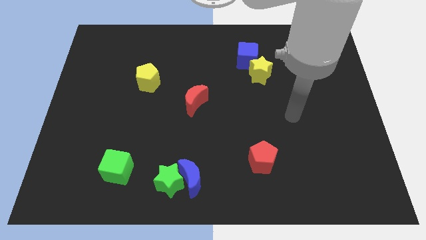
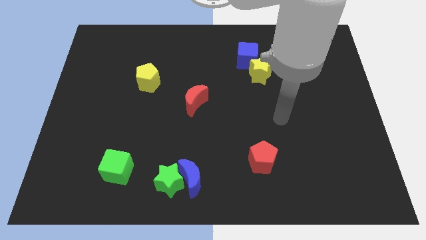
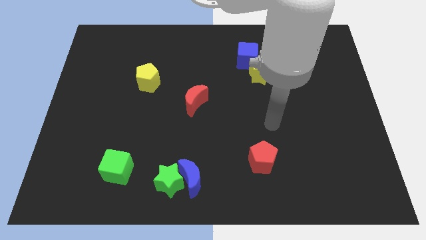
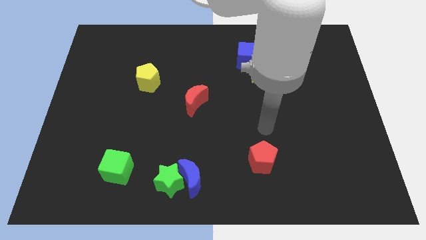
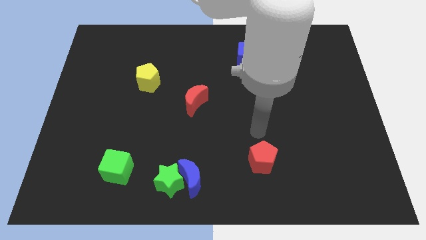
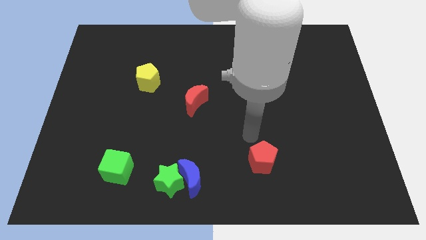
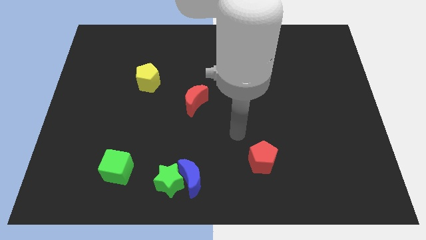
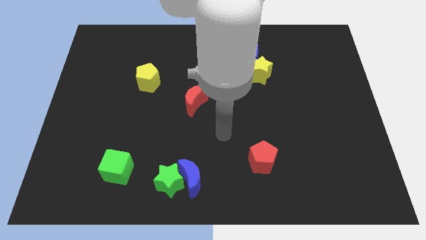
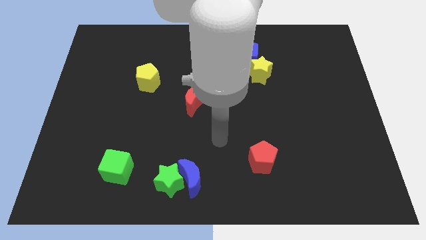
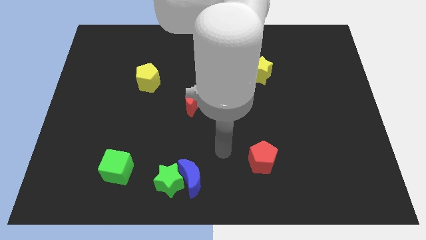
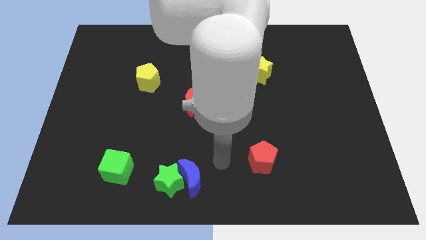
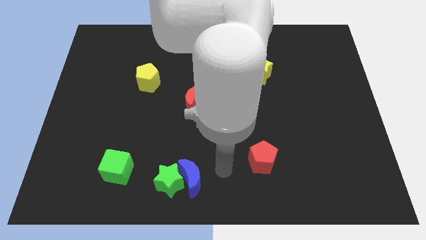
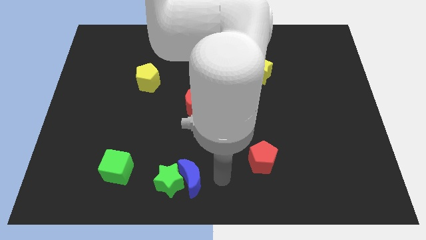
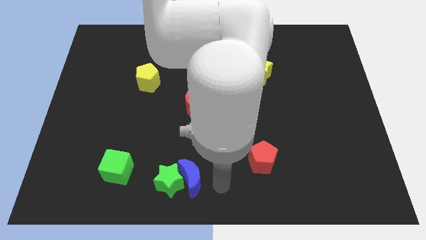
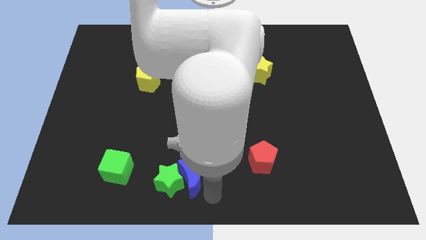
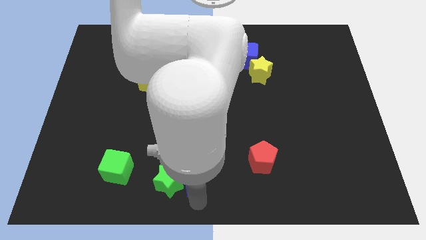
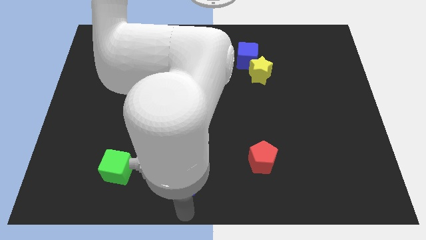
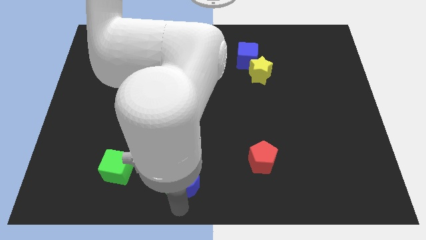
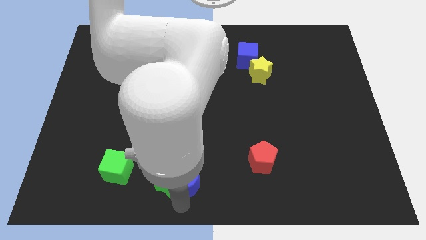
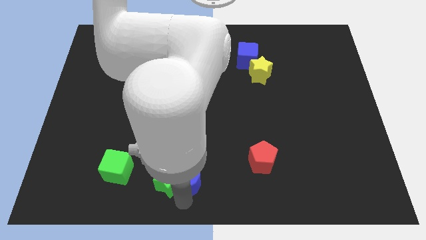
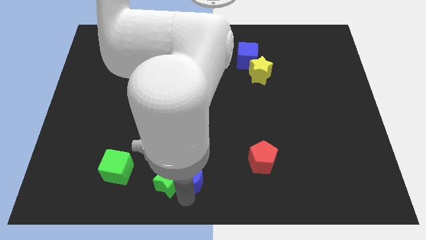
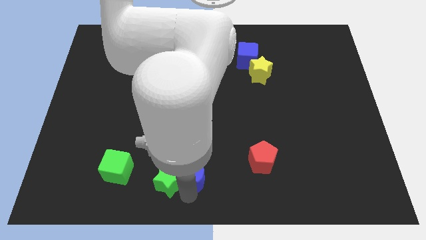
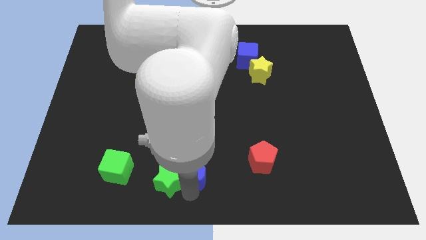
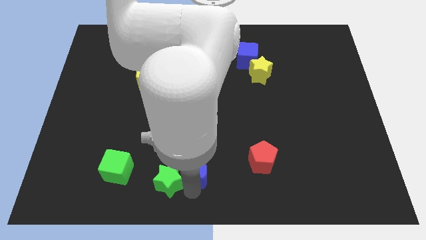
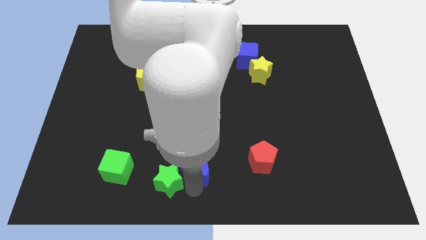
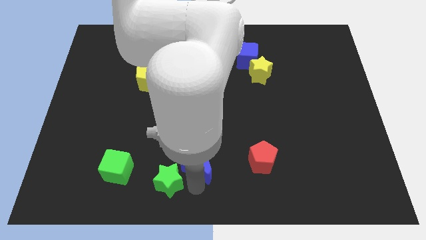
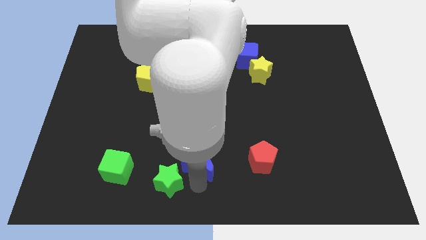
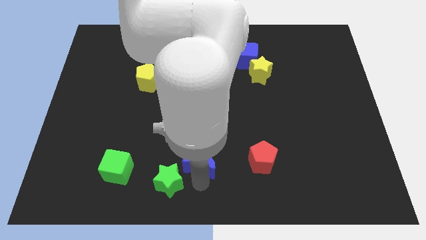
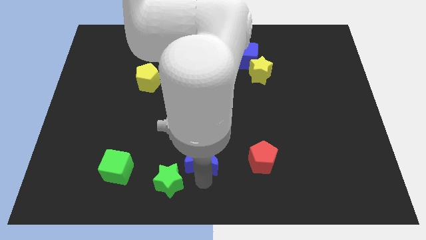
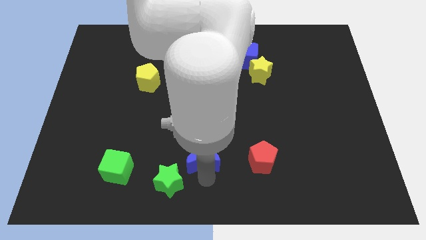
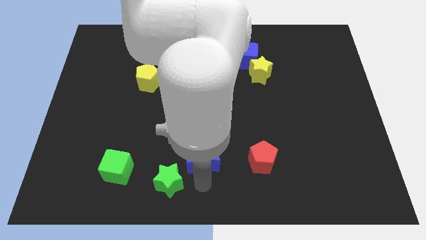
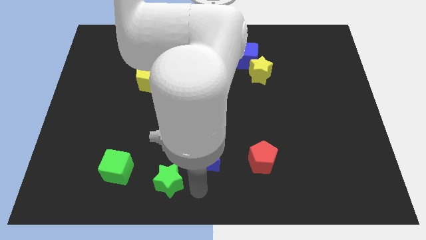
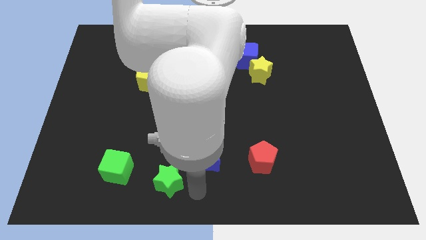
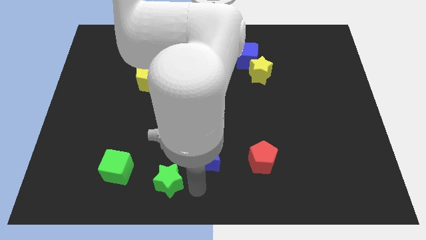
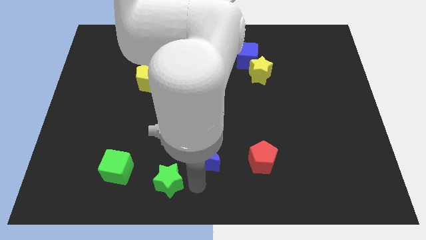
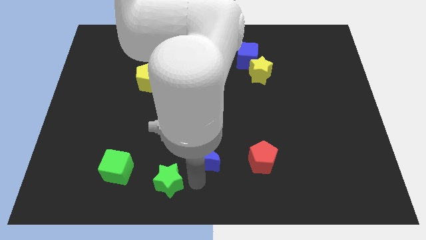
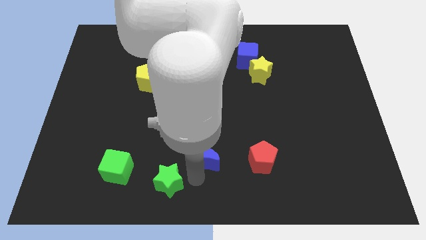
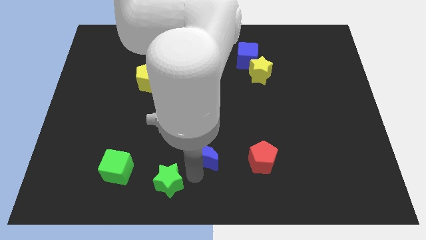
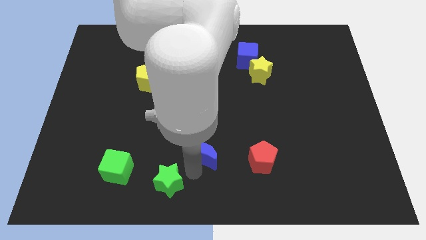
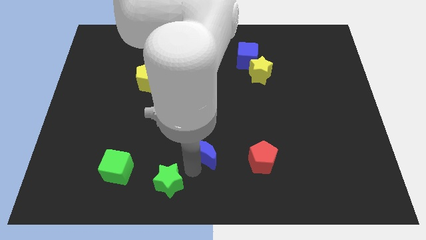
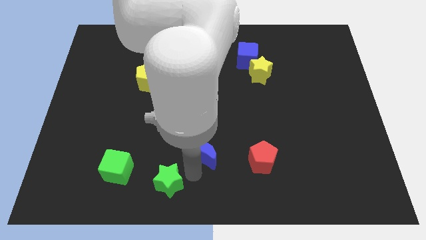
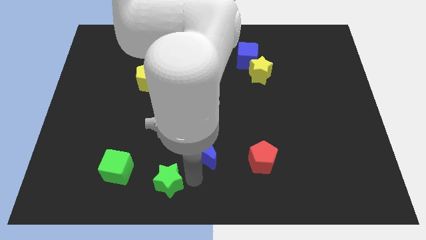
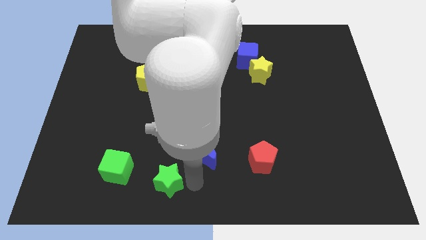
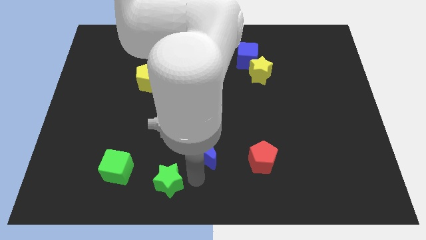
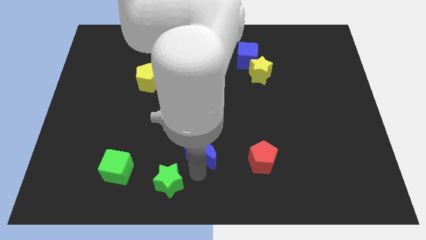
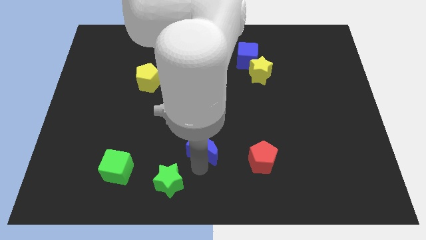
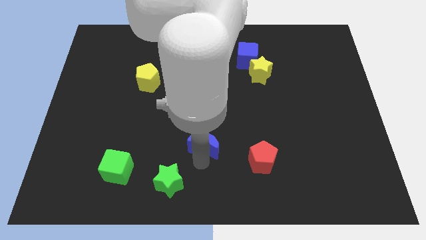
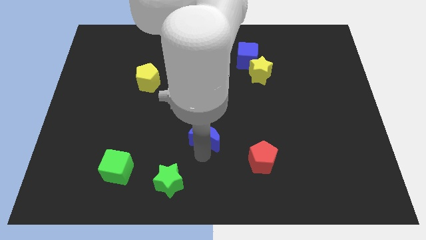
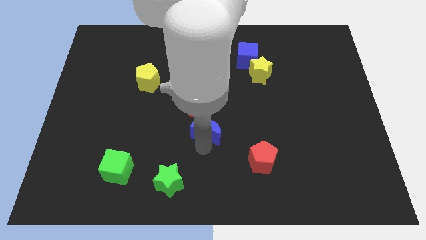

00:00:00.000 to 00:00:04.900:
slide the blue moon to the bottom right of the red moon

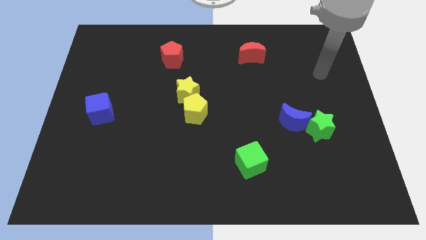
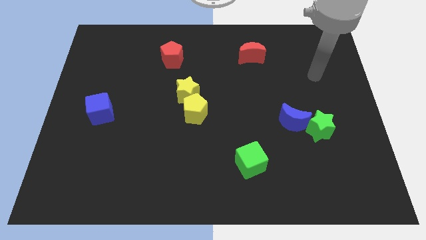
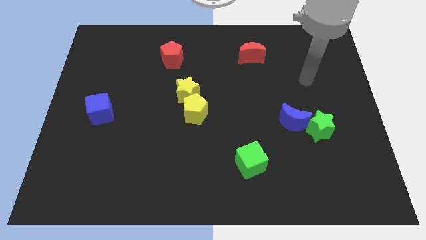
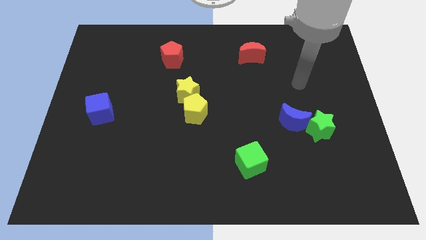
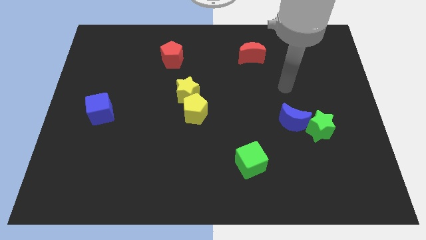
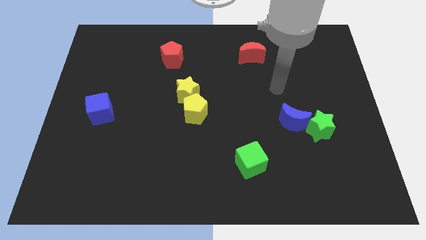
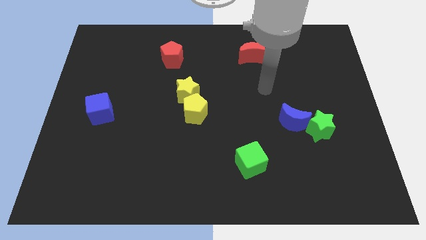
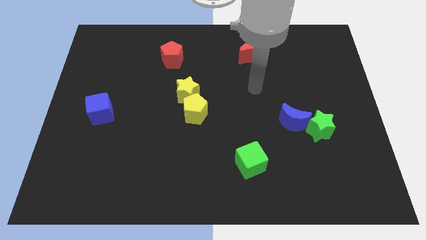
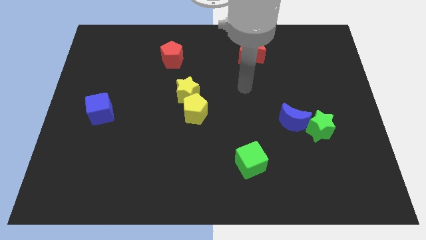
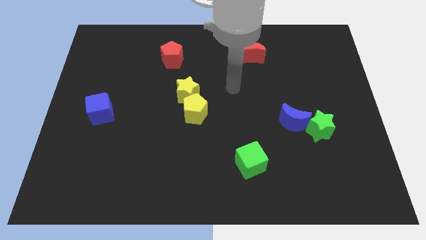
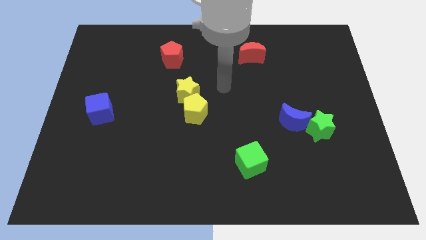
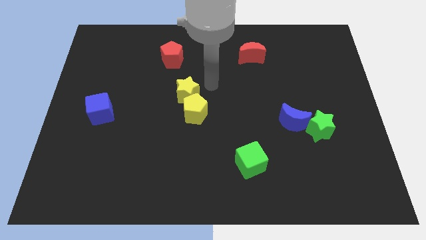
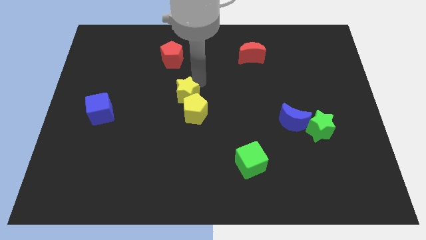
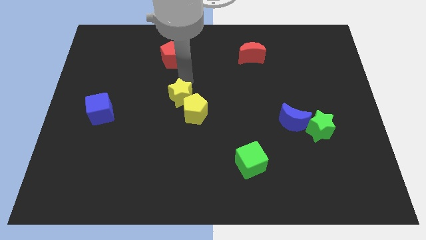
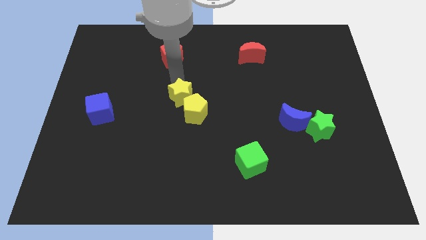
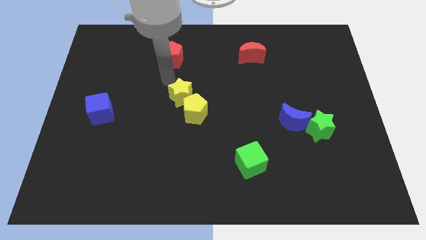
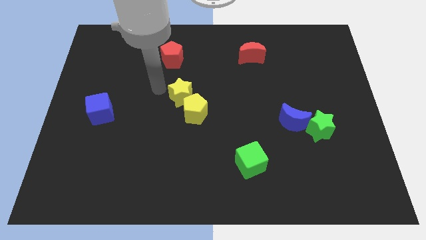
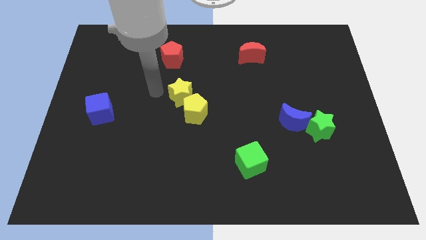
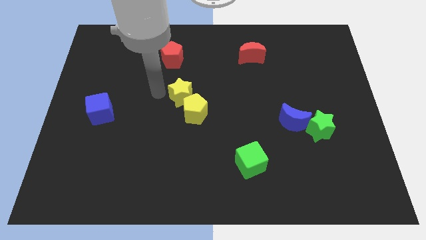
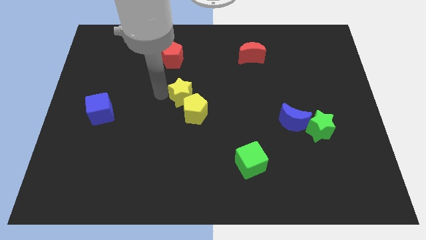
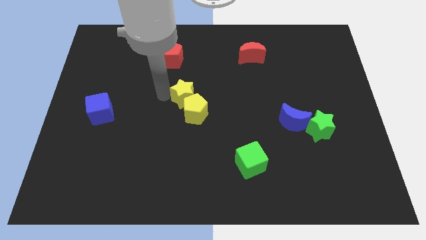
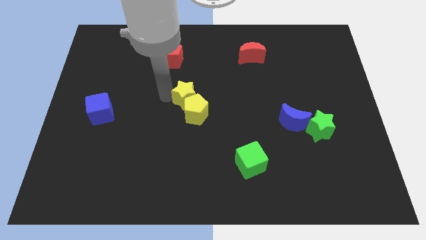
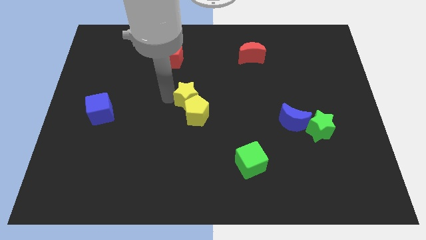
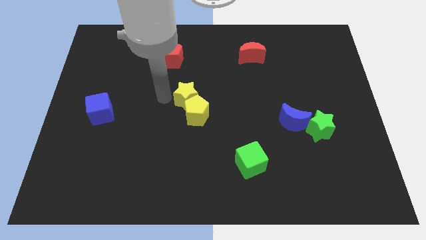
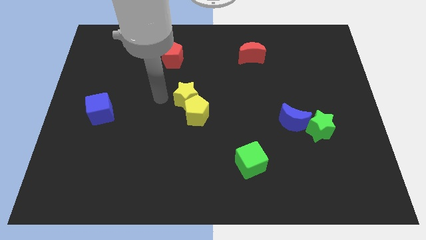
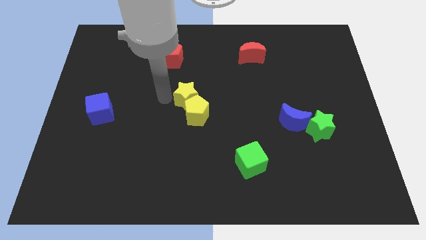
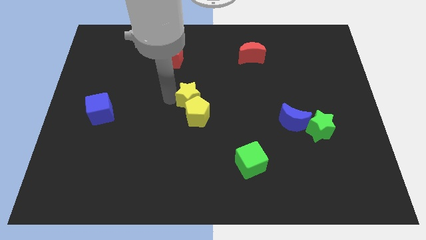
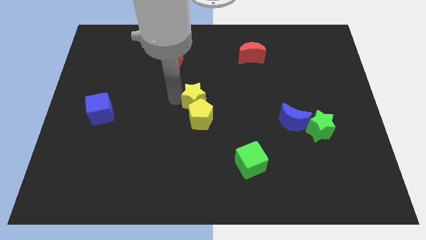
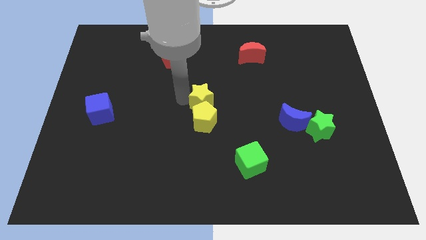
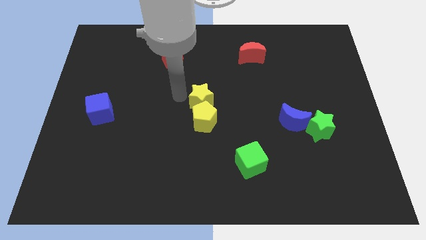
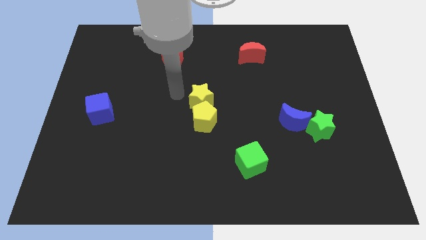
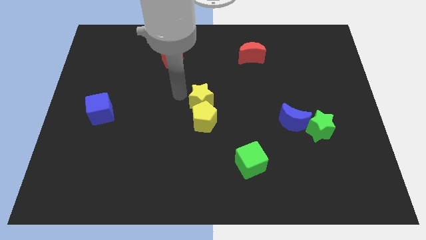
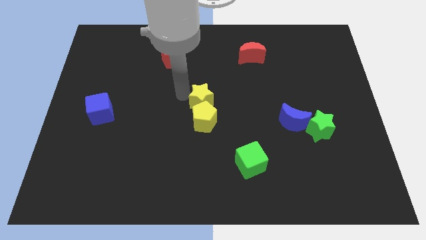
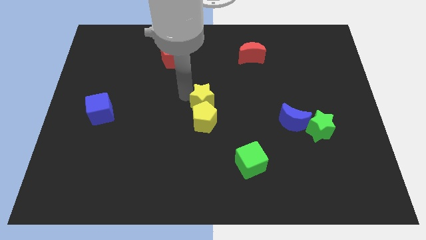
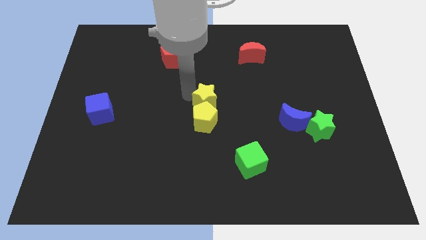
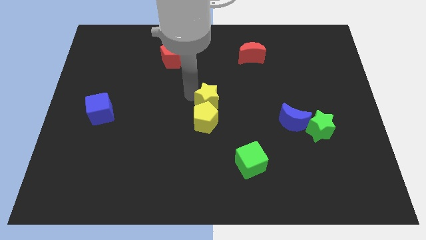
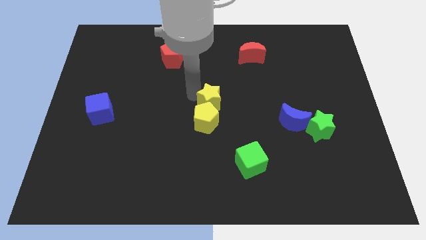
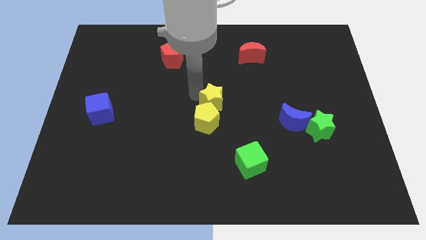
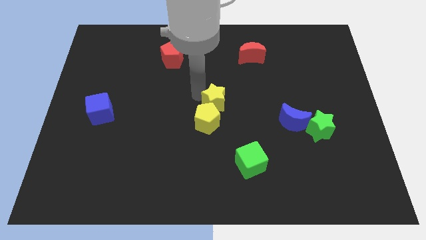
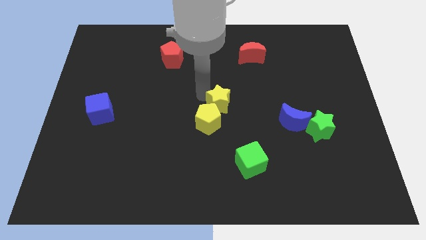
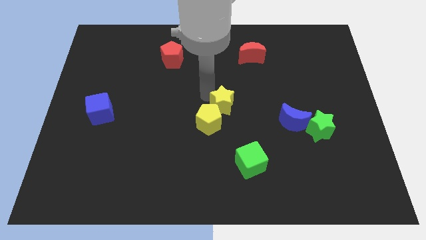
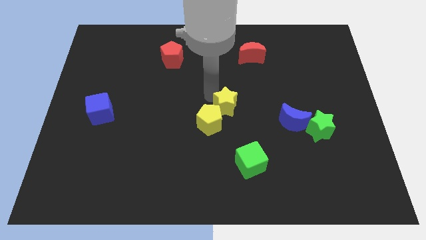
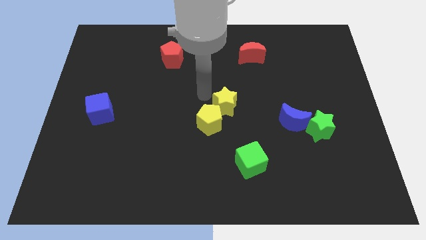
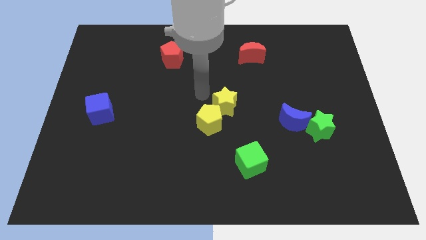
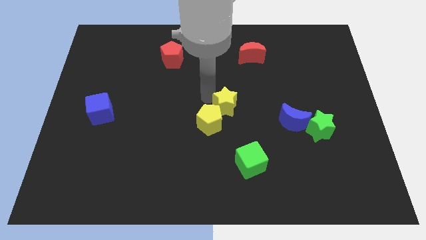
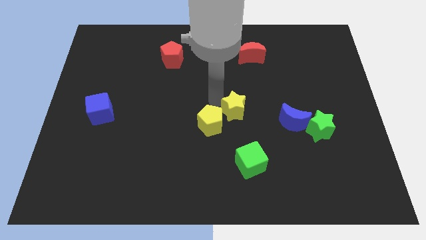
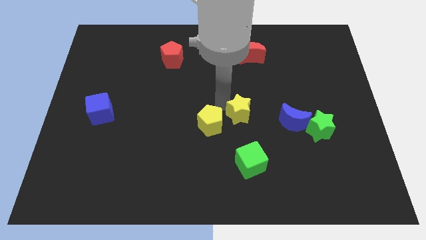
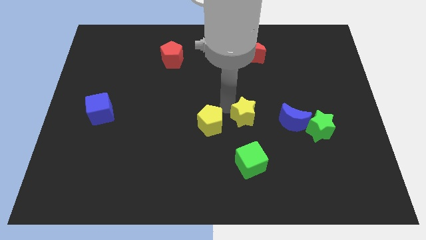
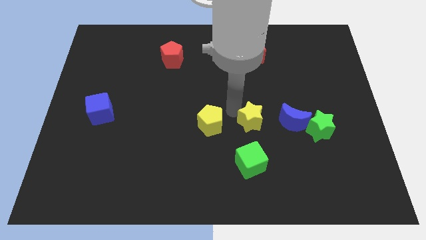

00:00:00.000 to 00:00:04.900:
push the yellow star to the left side of the green star
